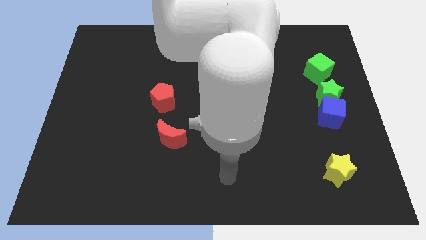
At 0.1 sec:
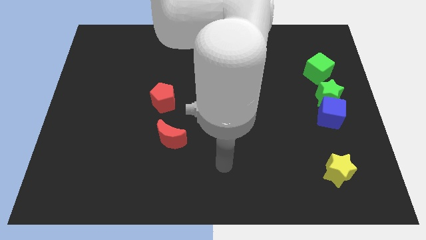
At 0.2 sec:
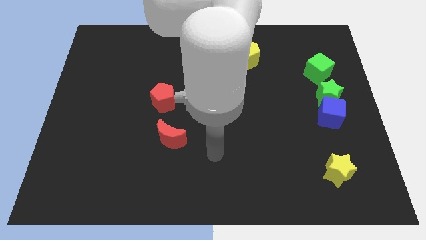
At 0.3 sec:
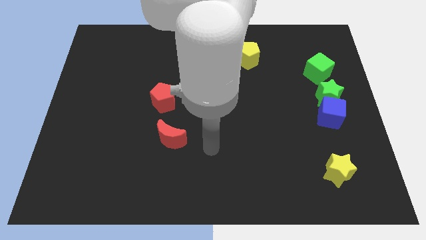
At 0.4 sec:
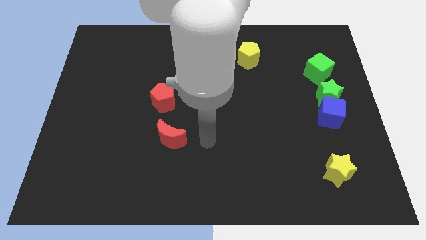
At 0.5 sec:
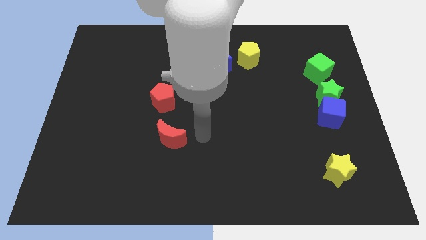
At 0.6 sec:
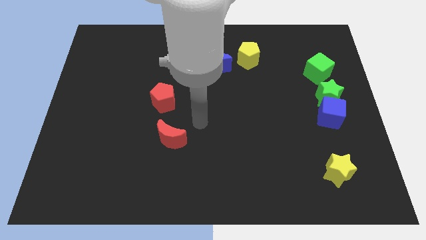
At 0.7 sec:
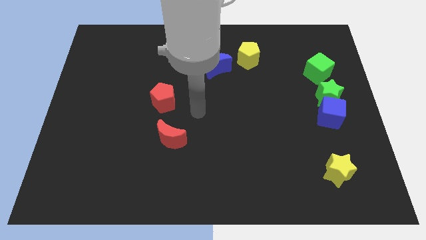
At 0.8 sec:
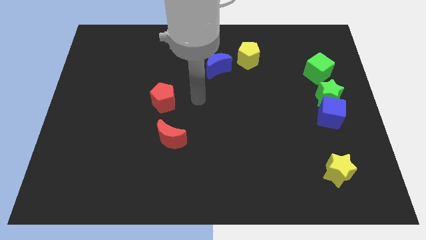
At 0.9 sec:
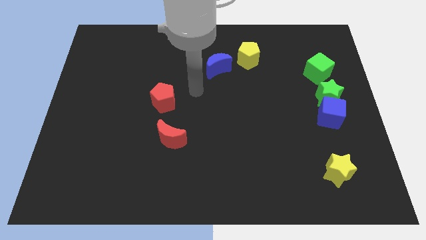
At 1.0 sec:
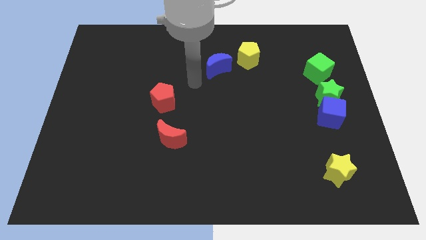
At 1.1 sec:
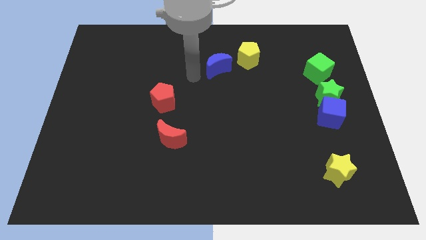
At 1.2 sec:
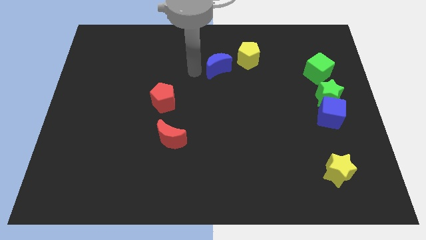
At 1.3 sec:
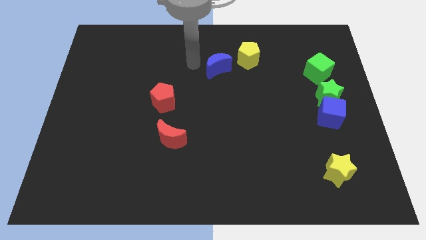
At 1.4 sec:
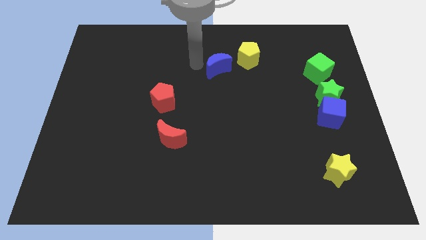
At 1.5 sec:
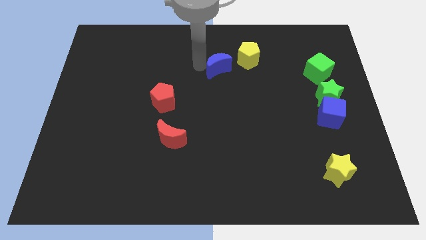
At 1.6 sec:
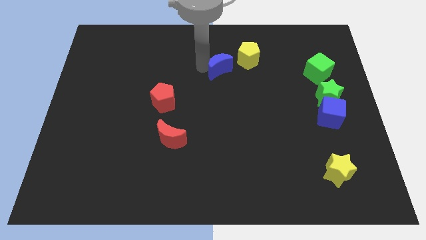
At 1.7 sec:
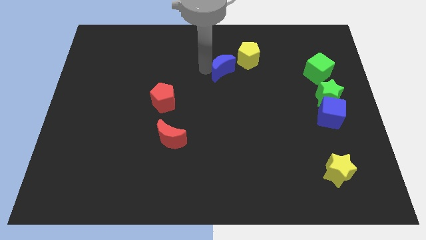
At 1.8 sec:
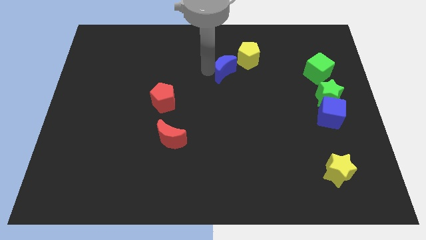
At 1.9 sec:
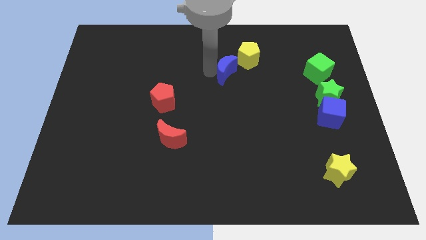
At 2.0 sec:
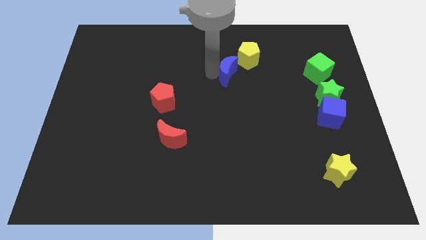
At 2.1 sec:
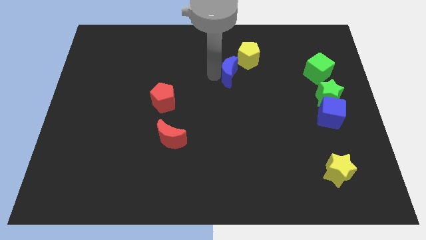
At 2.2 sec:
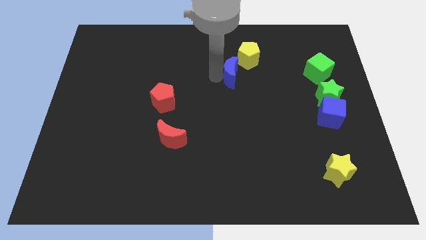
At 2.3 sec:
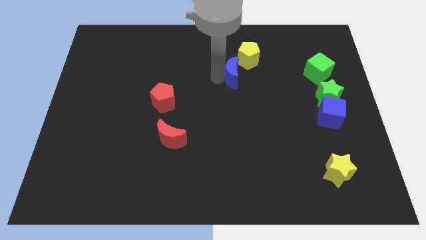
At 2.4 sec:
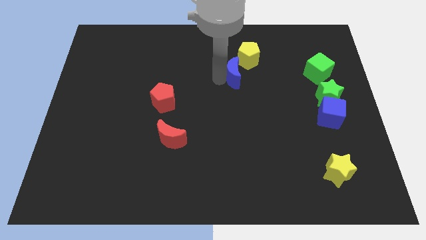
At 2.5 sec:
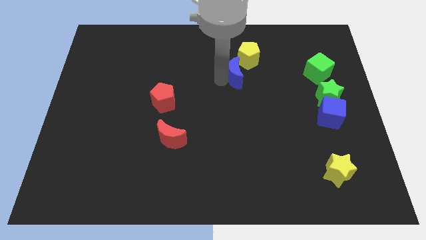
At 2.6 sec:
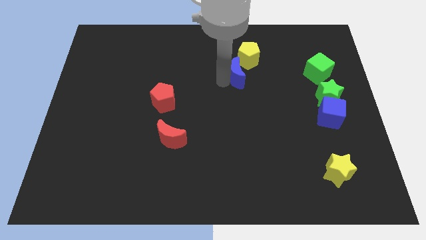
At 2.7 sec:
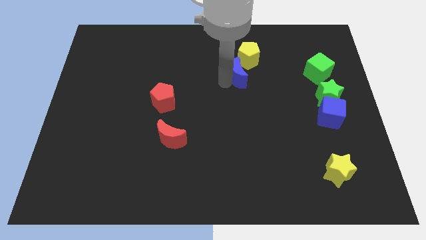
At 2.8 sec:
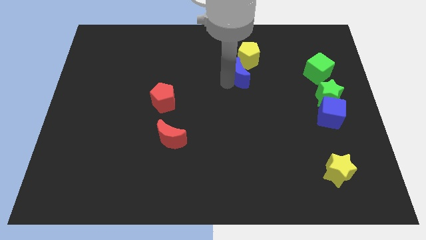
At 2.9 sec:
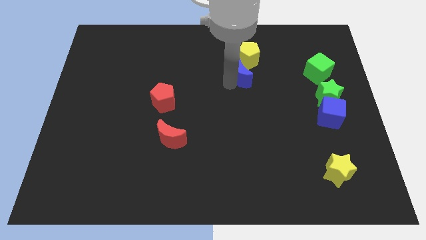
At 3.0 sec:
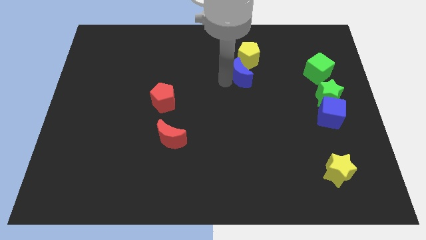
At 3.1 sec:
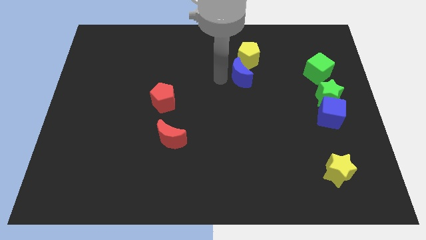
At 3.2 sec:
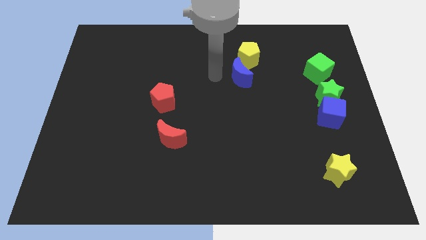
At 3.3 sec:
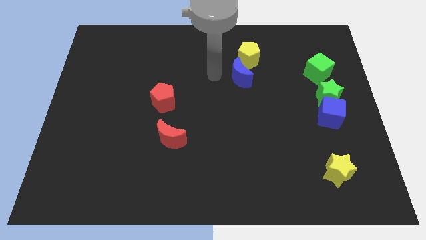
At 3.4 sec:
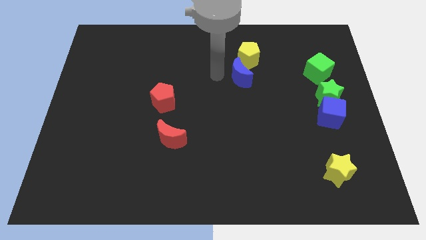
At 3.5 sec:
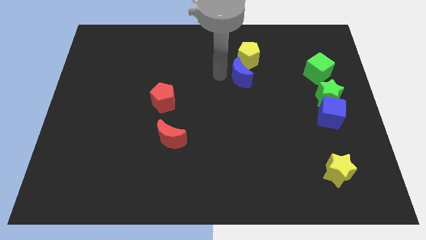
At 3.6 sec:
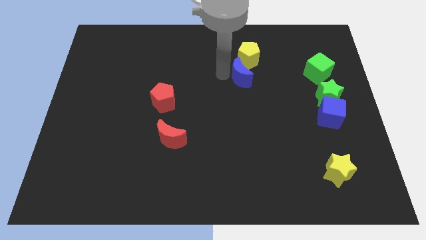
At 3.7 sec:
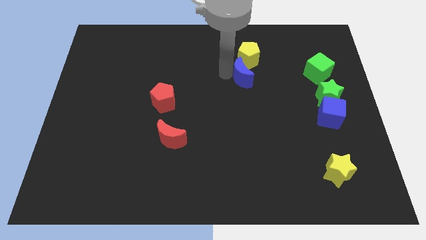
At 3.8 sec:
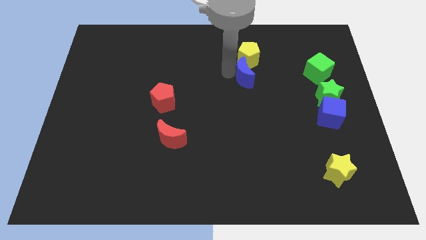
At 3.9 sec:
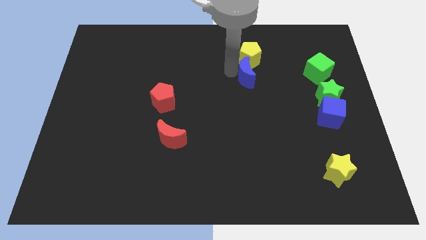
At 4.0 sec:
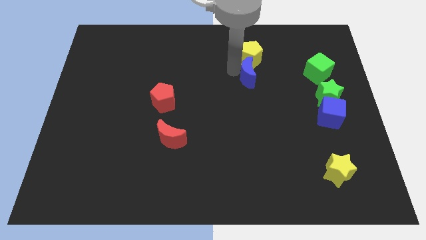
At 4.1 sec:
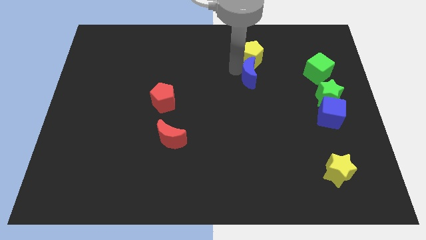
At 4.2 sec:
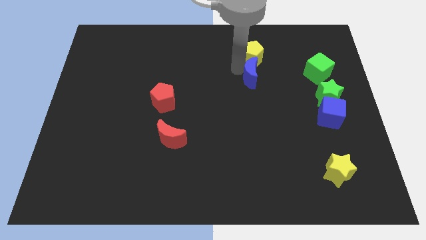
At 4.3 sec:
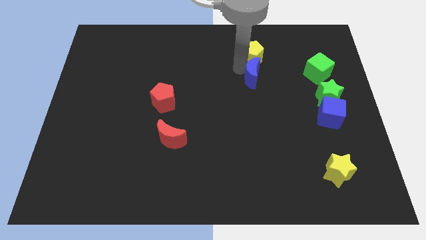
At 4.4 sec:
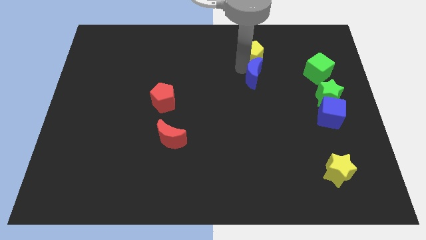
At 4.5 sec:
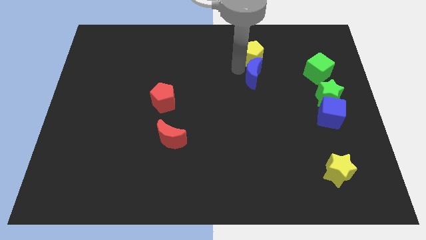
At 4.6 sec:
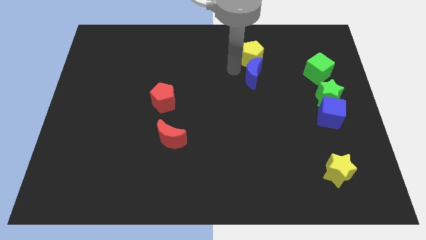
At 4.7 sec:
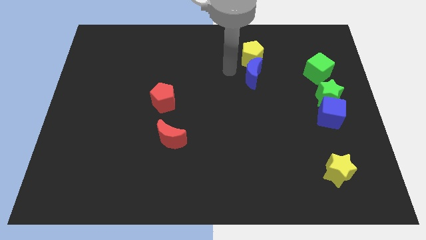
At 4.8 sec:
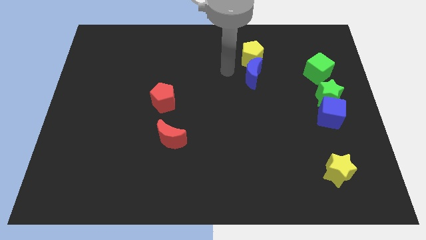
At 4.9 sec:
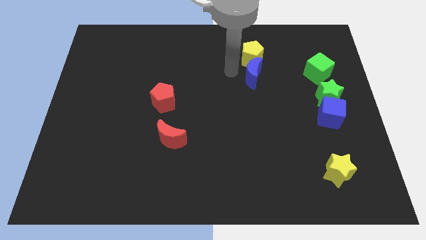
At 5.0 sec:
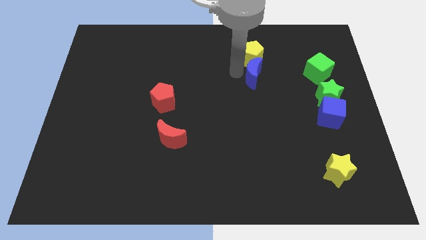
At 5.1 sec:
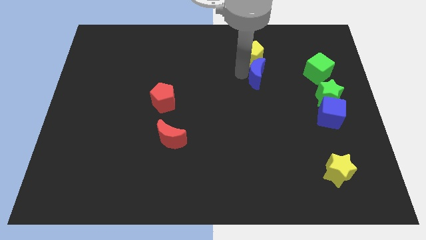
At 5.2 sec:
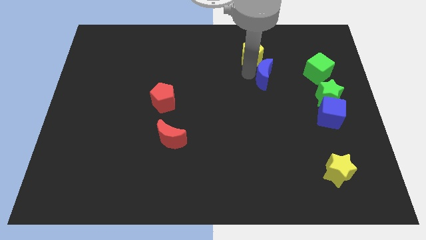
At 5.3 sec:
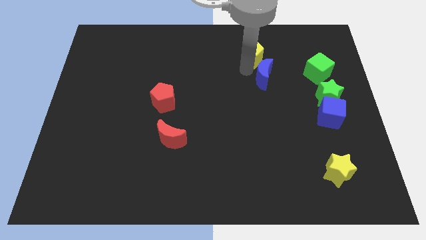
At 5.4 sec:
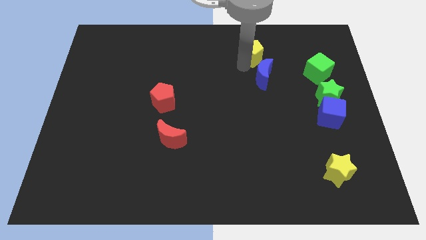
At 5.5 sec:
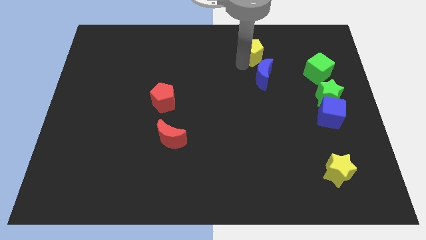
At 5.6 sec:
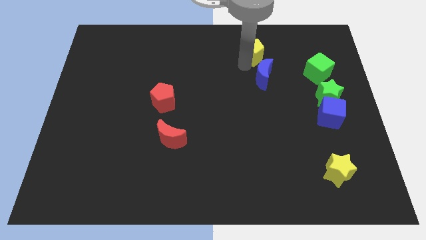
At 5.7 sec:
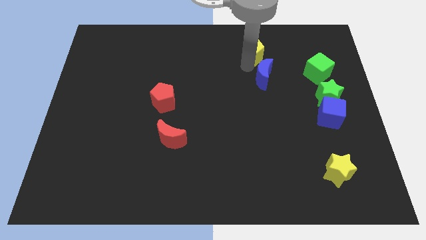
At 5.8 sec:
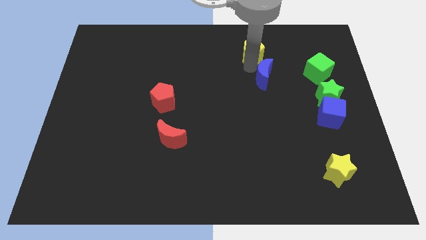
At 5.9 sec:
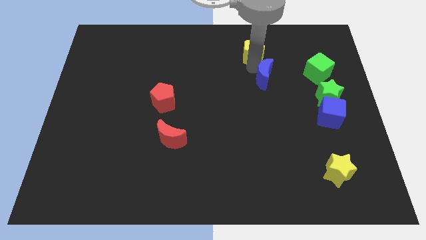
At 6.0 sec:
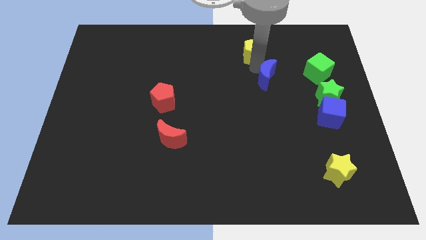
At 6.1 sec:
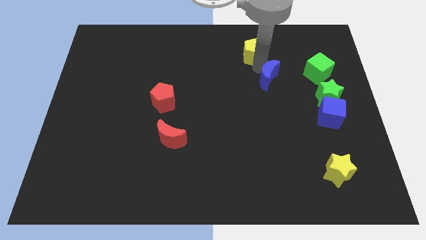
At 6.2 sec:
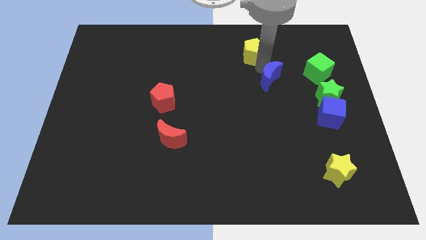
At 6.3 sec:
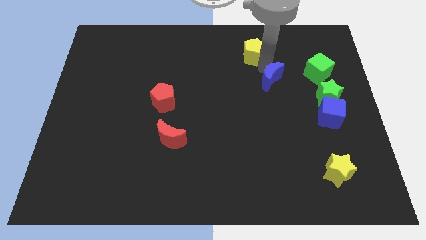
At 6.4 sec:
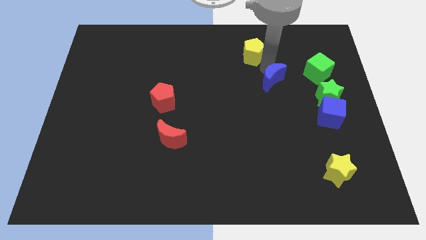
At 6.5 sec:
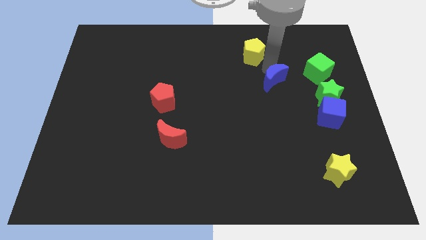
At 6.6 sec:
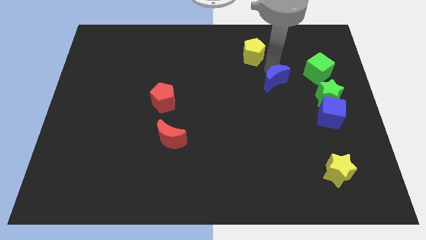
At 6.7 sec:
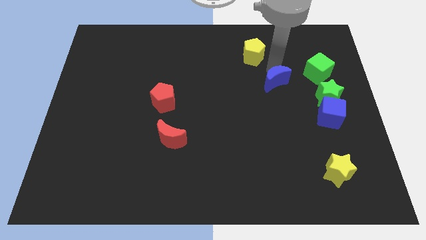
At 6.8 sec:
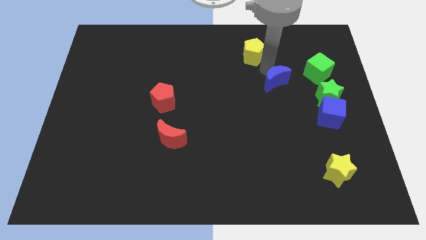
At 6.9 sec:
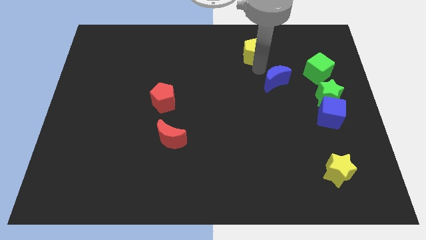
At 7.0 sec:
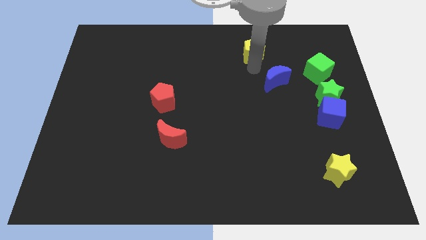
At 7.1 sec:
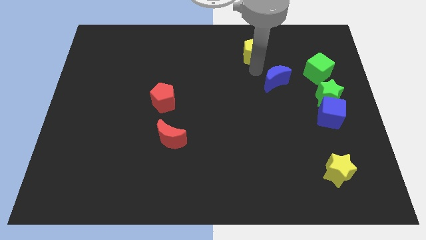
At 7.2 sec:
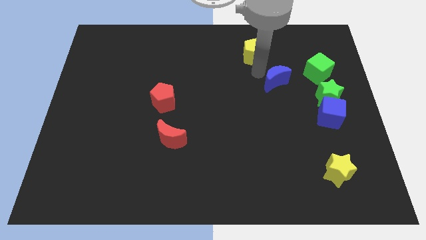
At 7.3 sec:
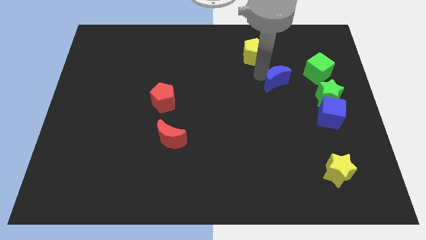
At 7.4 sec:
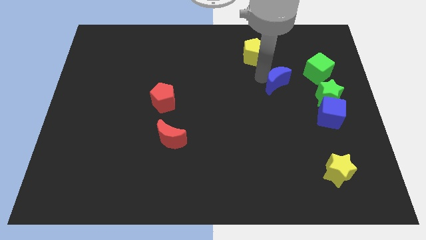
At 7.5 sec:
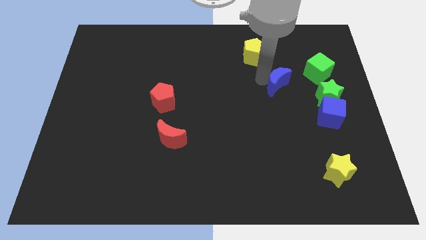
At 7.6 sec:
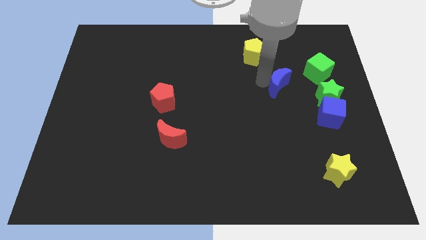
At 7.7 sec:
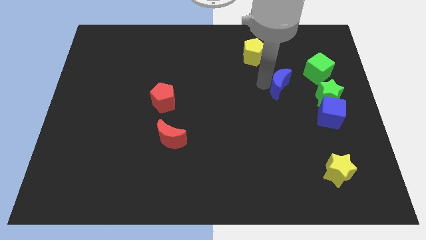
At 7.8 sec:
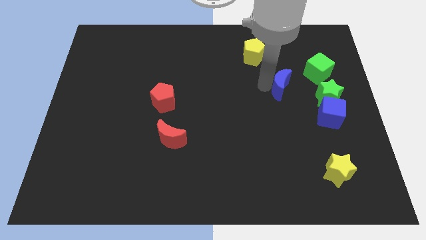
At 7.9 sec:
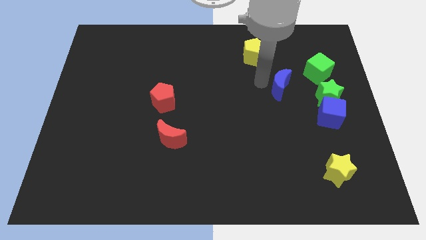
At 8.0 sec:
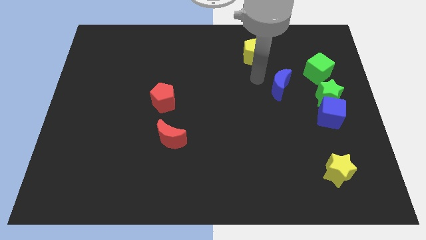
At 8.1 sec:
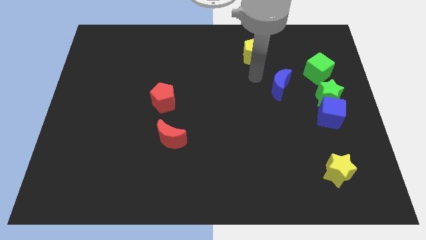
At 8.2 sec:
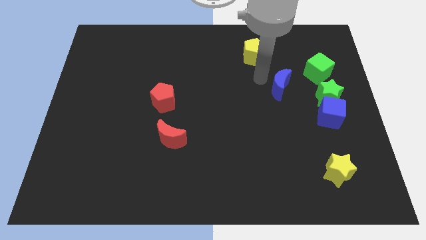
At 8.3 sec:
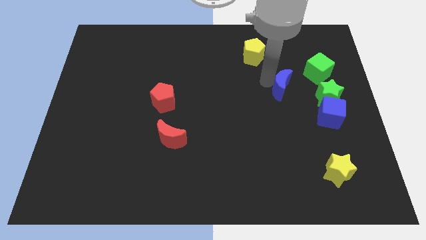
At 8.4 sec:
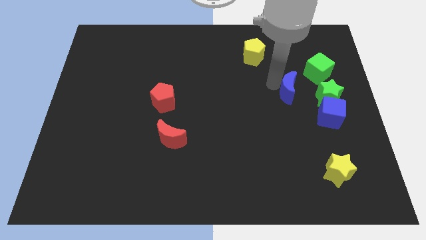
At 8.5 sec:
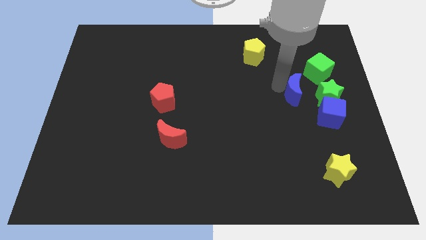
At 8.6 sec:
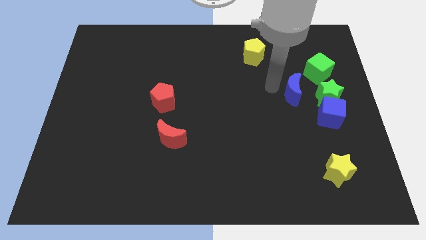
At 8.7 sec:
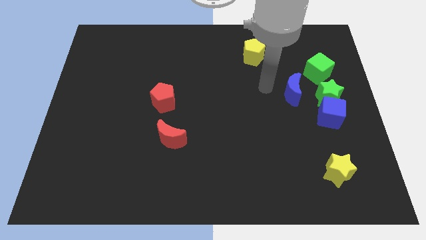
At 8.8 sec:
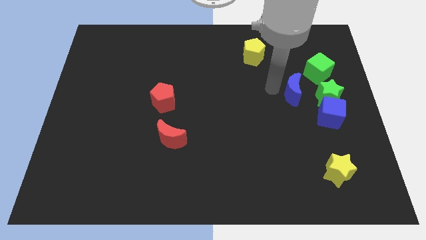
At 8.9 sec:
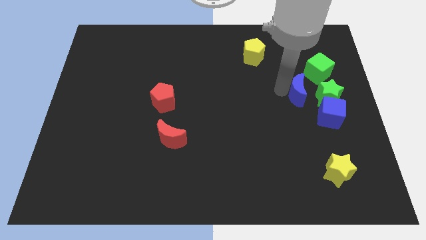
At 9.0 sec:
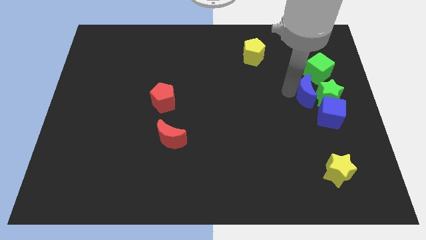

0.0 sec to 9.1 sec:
slide the blue moon towards the green star
